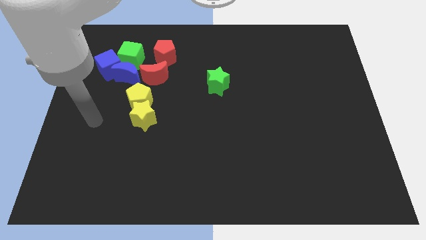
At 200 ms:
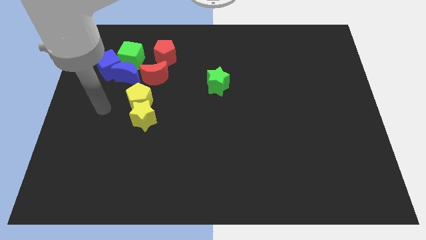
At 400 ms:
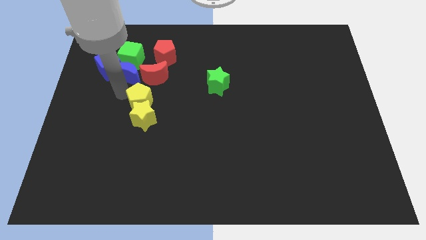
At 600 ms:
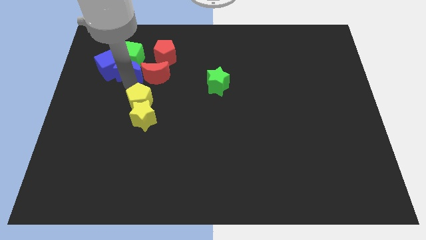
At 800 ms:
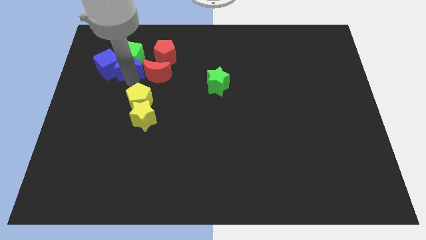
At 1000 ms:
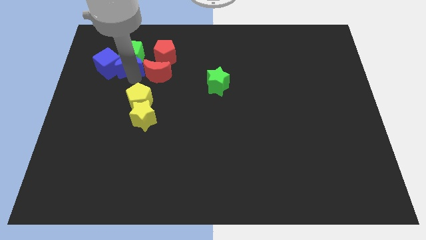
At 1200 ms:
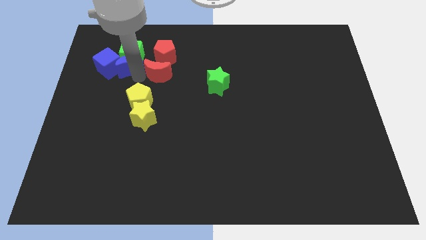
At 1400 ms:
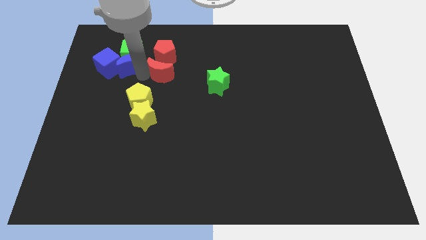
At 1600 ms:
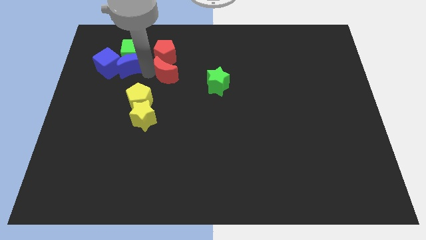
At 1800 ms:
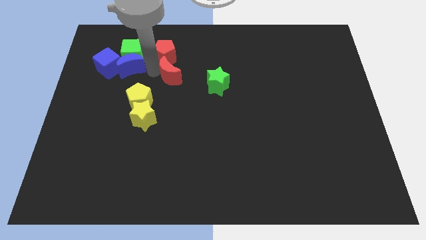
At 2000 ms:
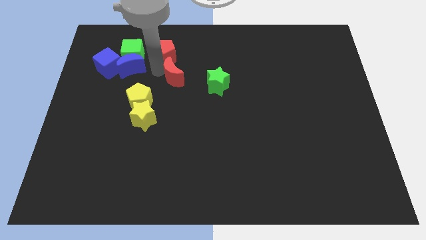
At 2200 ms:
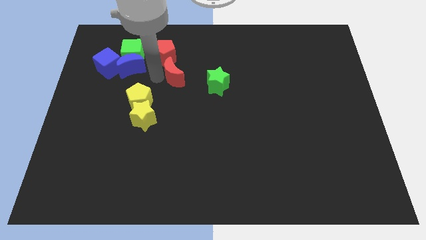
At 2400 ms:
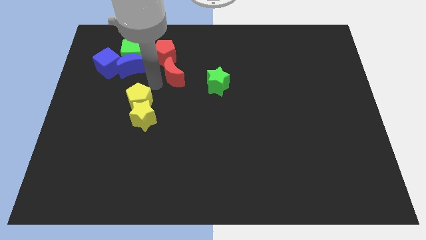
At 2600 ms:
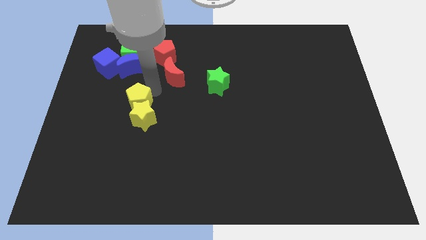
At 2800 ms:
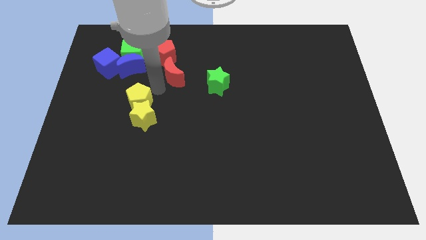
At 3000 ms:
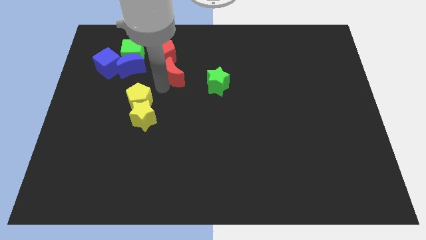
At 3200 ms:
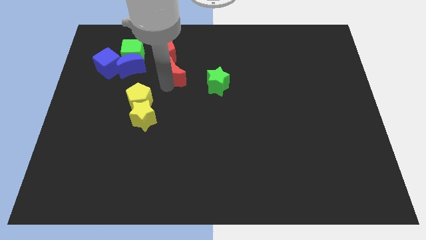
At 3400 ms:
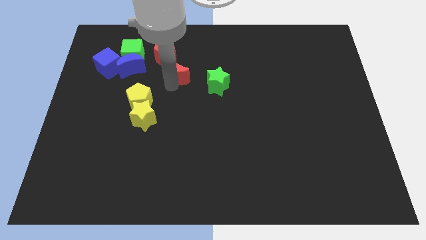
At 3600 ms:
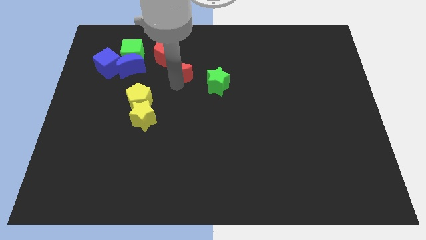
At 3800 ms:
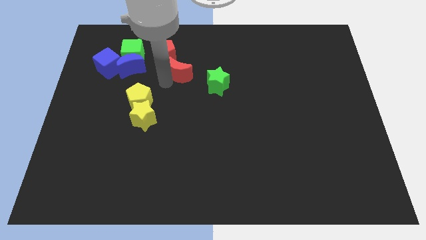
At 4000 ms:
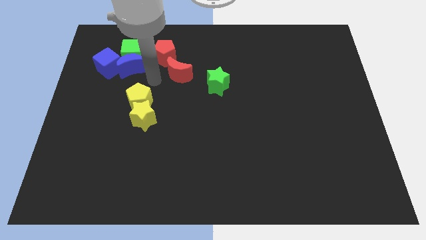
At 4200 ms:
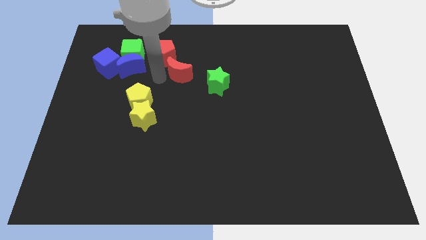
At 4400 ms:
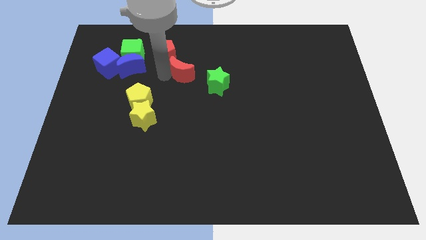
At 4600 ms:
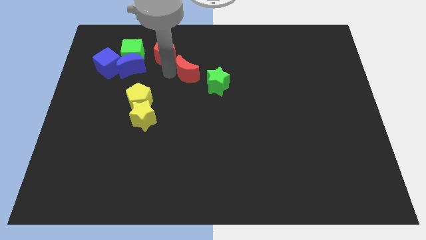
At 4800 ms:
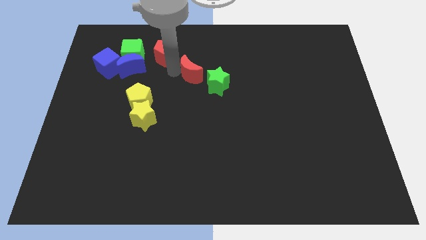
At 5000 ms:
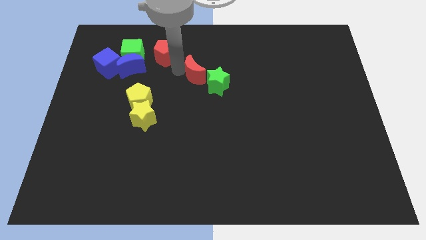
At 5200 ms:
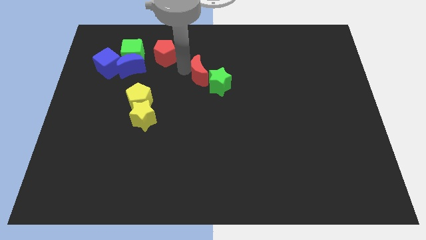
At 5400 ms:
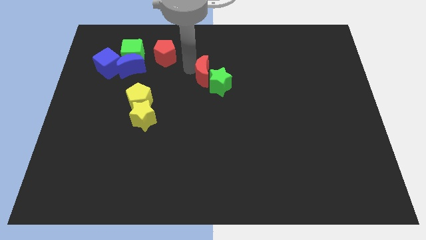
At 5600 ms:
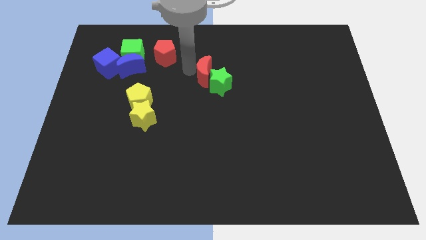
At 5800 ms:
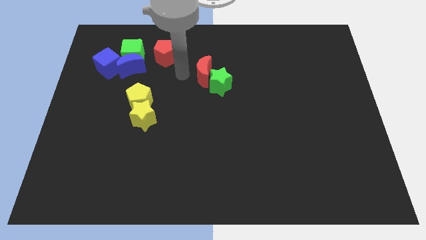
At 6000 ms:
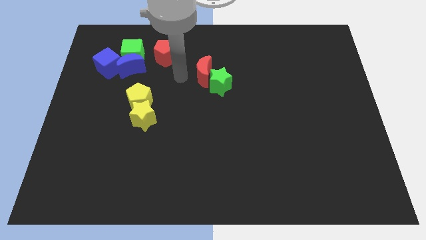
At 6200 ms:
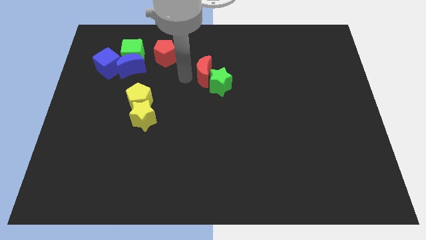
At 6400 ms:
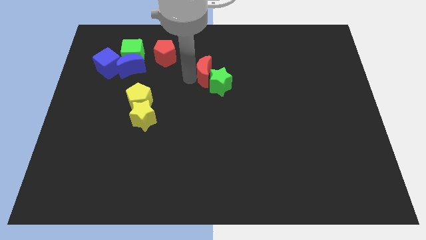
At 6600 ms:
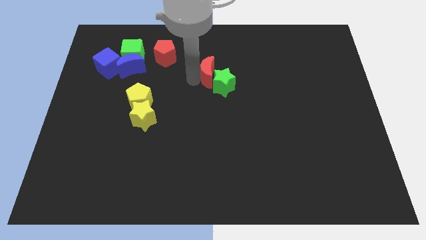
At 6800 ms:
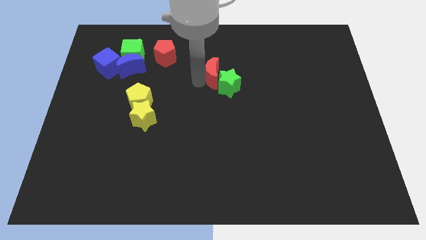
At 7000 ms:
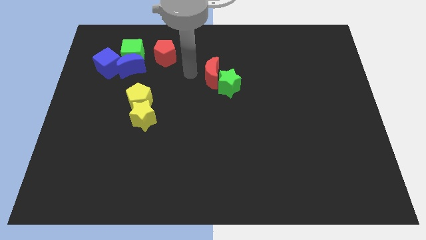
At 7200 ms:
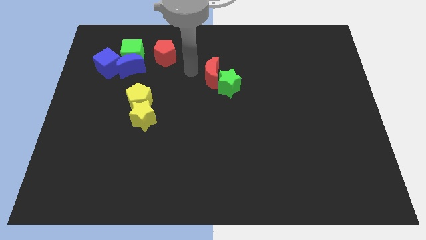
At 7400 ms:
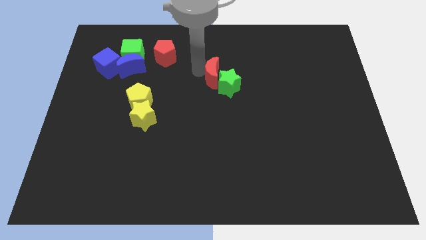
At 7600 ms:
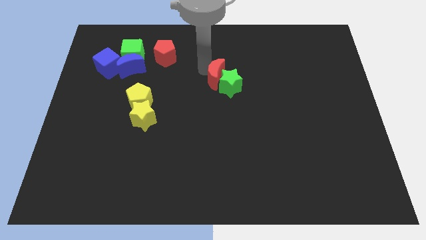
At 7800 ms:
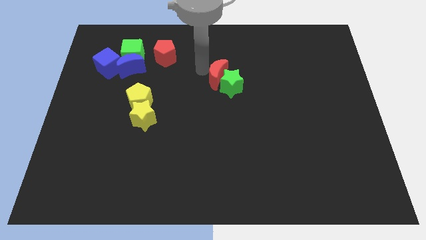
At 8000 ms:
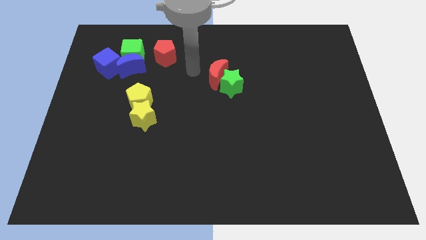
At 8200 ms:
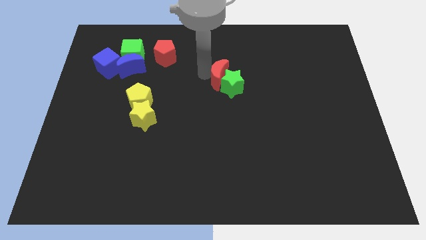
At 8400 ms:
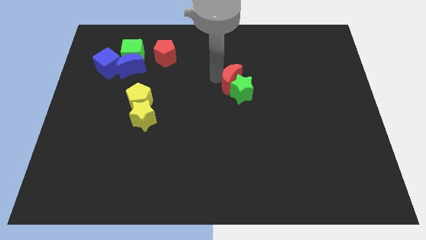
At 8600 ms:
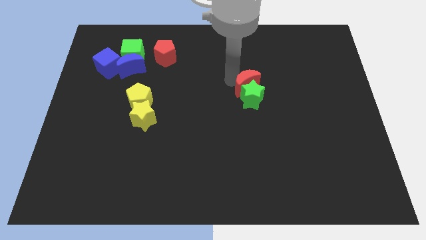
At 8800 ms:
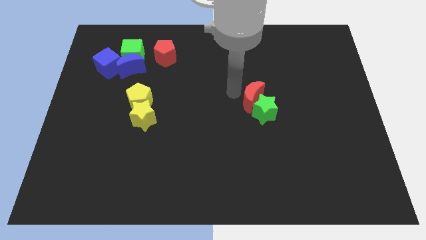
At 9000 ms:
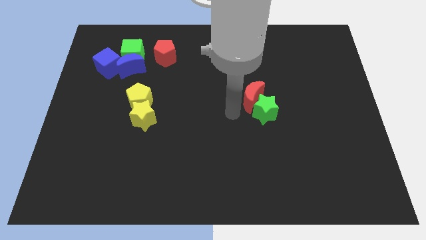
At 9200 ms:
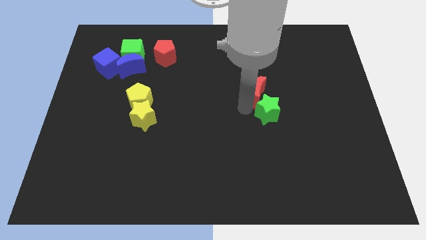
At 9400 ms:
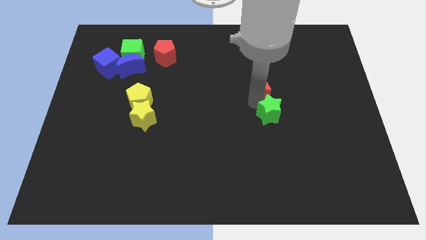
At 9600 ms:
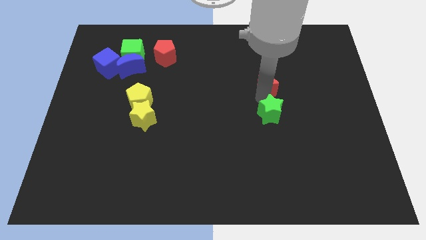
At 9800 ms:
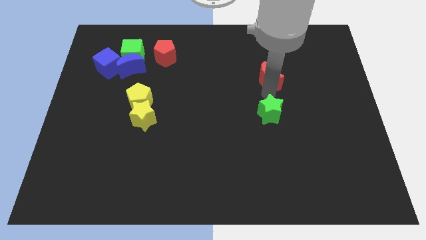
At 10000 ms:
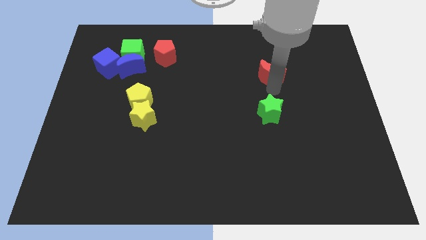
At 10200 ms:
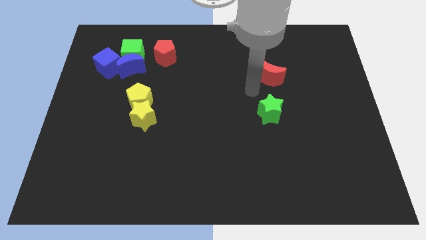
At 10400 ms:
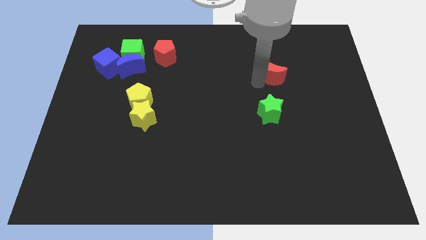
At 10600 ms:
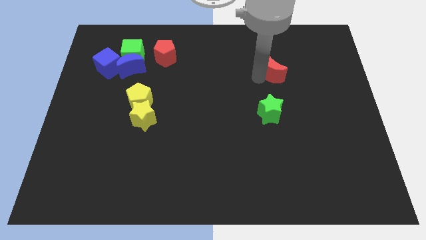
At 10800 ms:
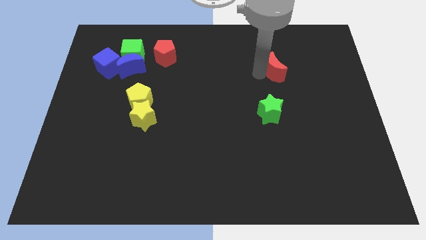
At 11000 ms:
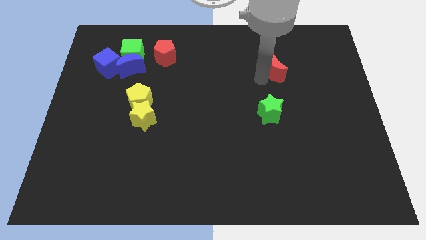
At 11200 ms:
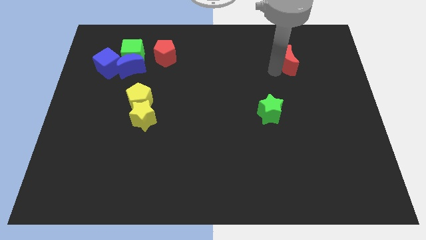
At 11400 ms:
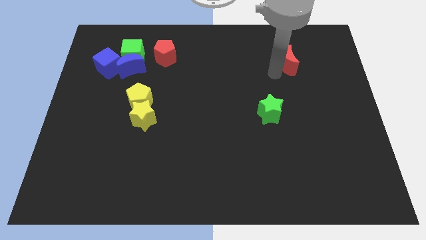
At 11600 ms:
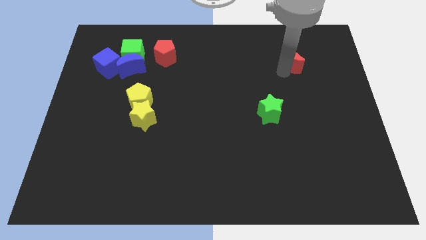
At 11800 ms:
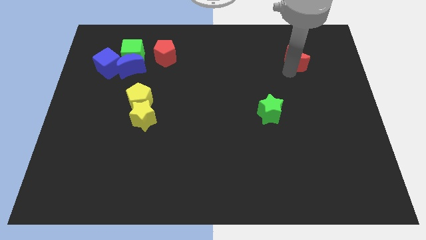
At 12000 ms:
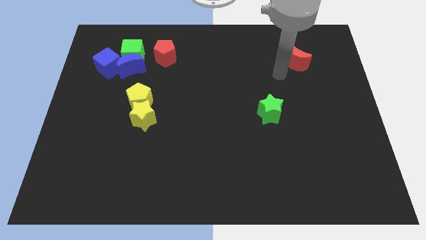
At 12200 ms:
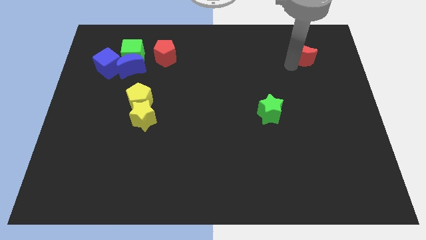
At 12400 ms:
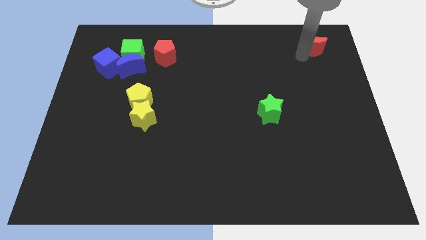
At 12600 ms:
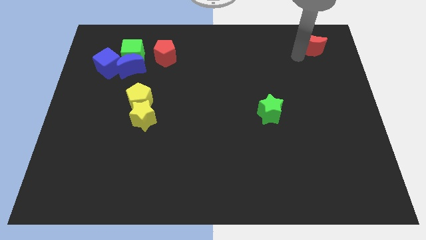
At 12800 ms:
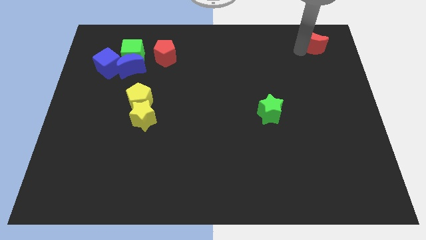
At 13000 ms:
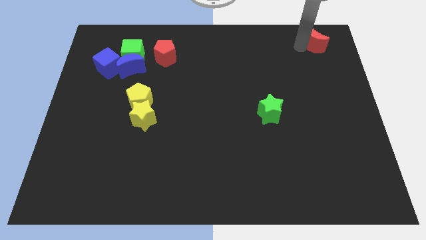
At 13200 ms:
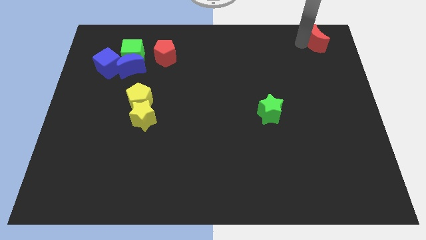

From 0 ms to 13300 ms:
slide the red moon to the top right of the board
